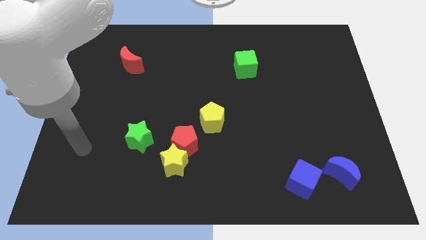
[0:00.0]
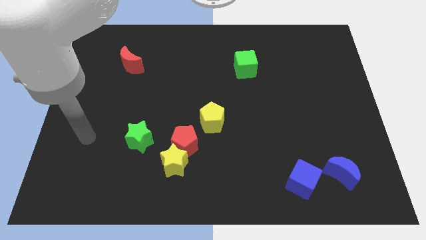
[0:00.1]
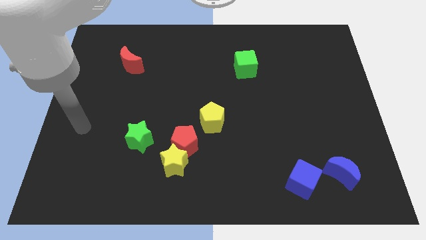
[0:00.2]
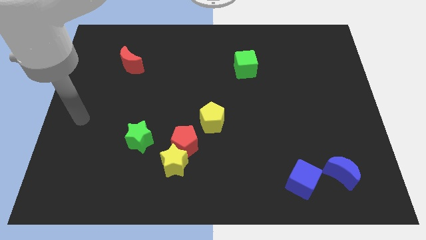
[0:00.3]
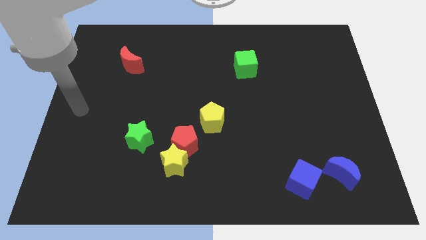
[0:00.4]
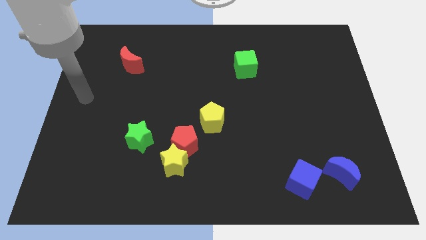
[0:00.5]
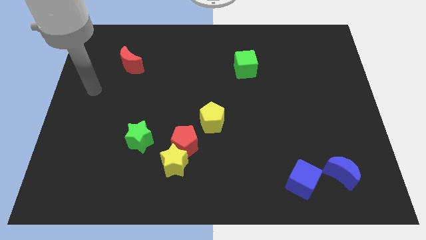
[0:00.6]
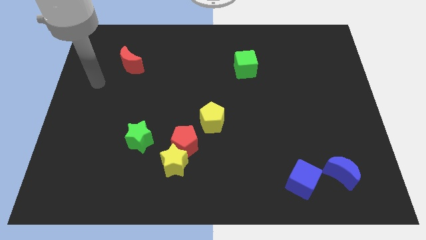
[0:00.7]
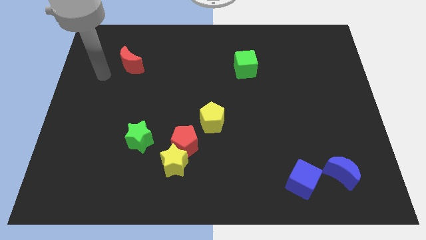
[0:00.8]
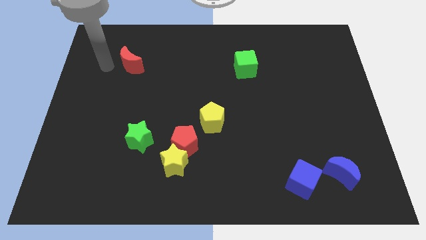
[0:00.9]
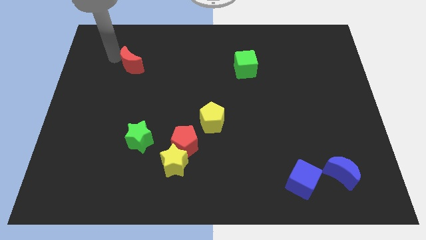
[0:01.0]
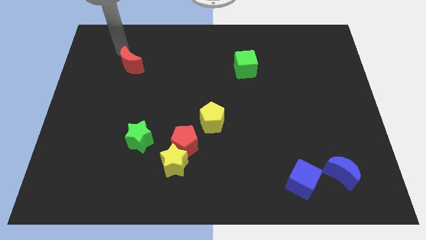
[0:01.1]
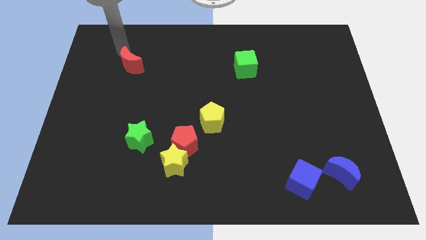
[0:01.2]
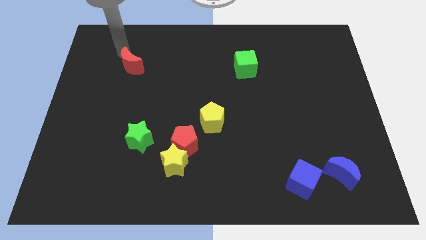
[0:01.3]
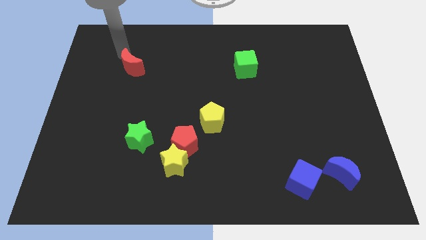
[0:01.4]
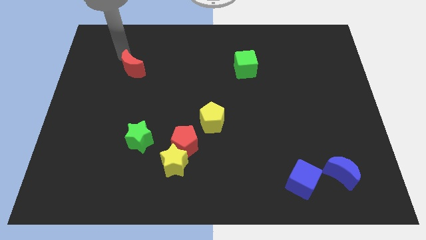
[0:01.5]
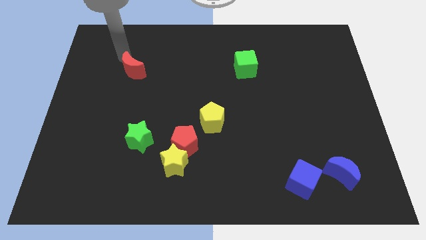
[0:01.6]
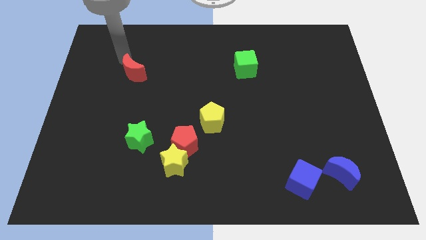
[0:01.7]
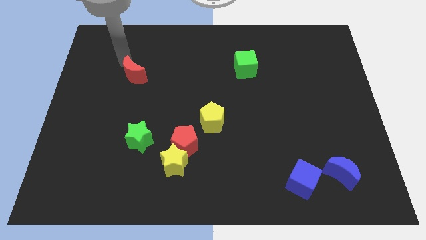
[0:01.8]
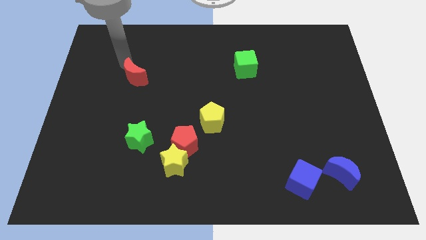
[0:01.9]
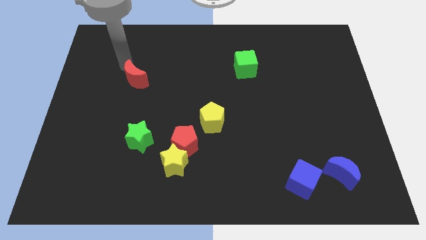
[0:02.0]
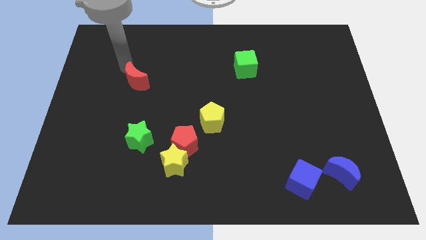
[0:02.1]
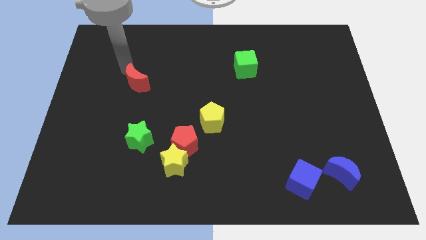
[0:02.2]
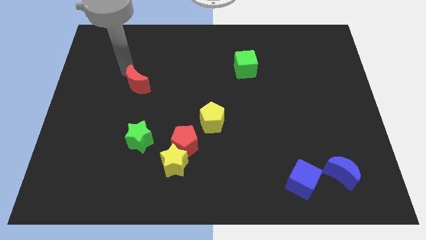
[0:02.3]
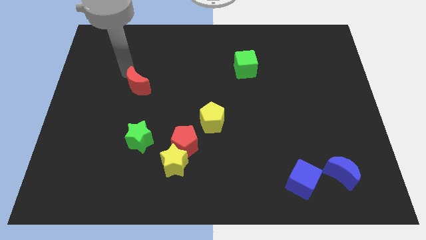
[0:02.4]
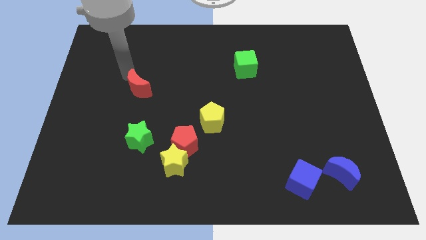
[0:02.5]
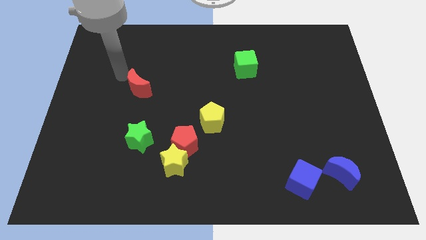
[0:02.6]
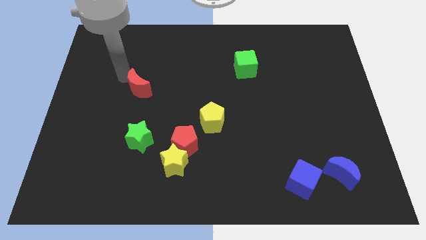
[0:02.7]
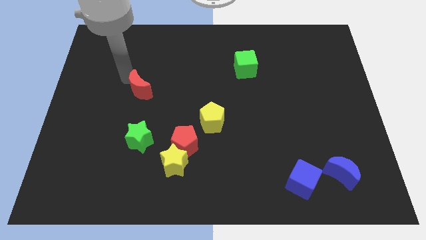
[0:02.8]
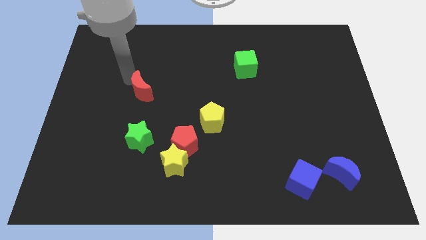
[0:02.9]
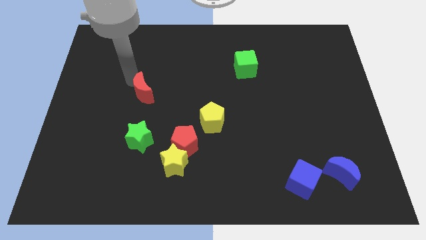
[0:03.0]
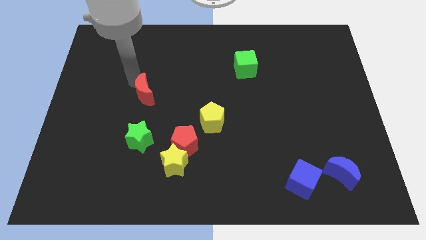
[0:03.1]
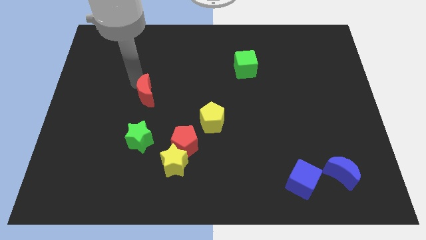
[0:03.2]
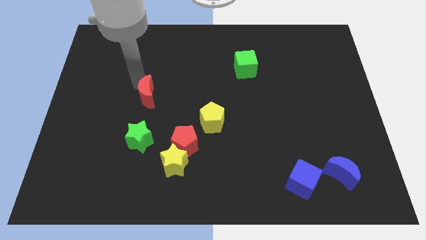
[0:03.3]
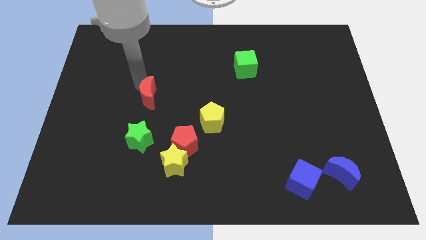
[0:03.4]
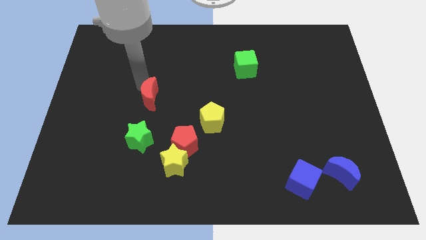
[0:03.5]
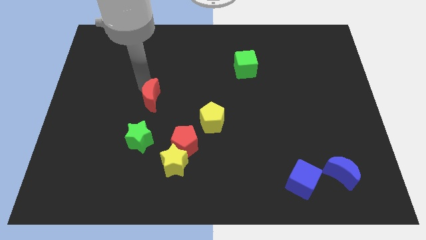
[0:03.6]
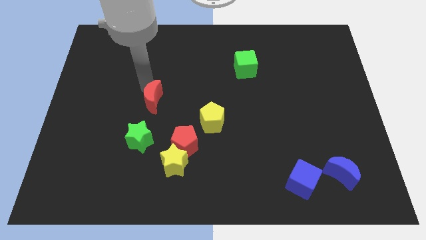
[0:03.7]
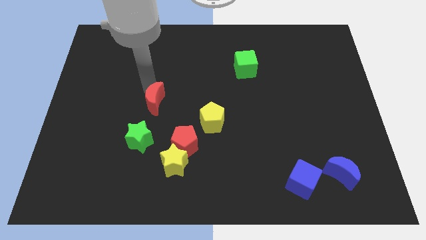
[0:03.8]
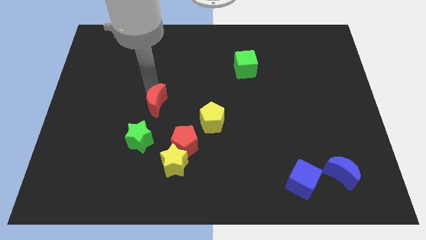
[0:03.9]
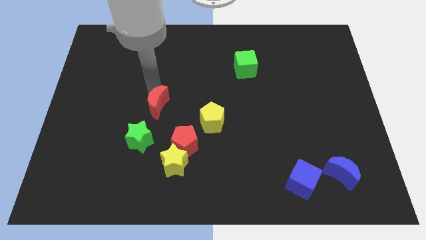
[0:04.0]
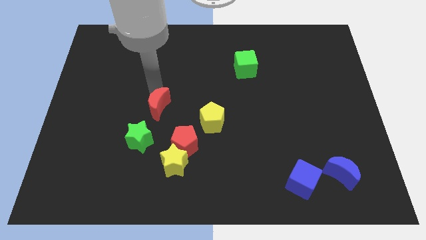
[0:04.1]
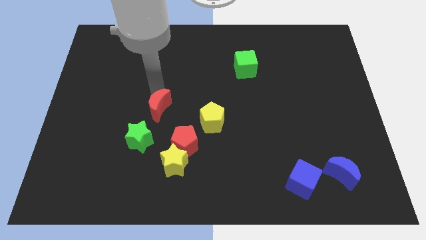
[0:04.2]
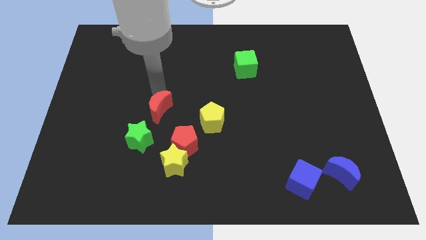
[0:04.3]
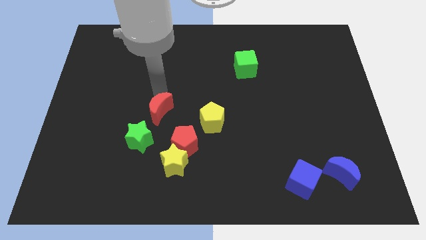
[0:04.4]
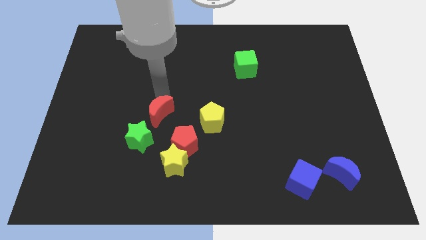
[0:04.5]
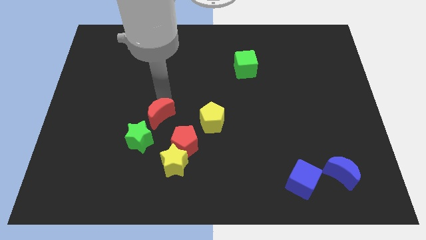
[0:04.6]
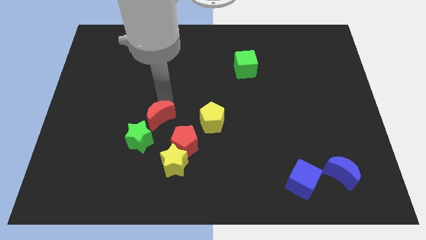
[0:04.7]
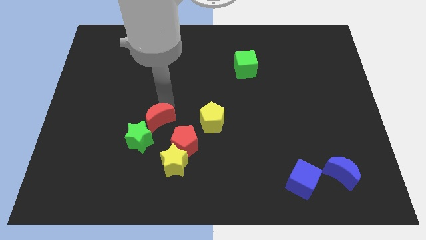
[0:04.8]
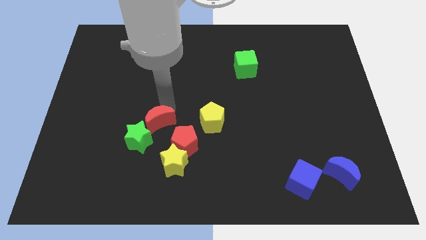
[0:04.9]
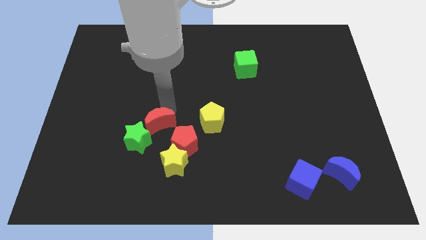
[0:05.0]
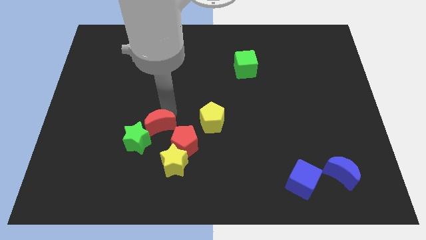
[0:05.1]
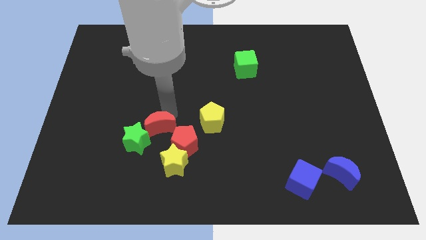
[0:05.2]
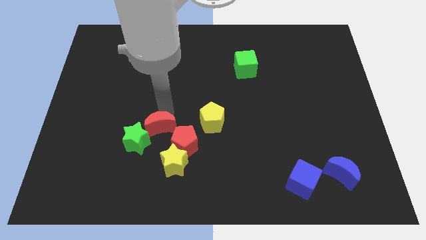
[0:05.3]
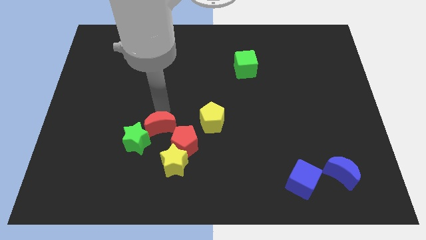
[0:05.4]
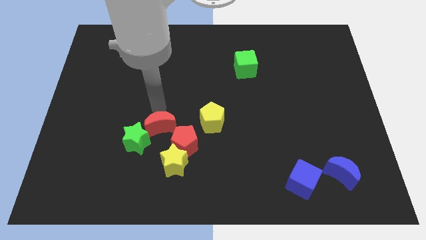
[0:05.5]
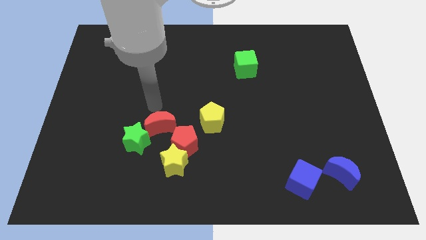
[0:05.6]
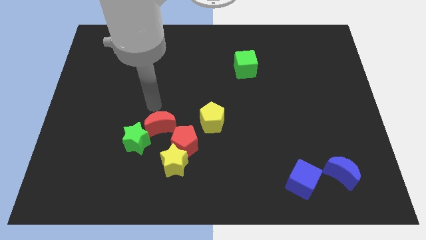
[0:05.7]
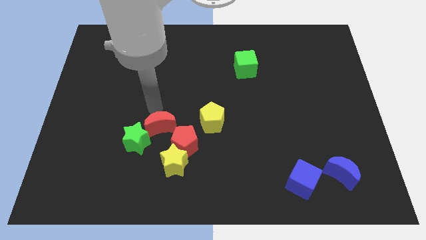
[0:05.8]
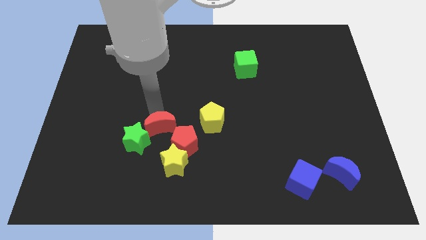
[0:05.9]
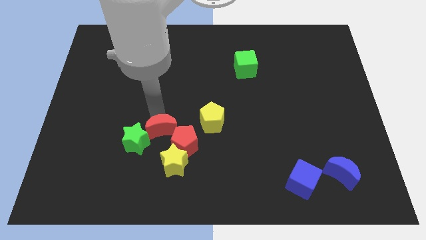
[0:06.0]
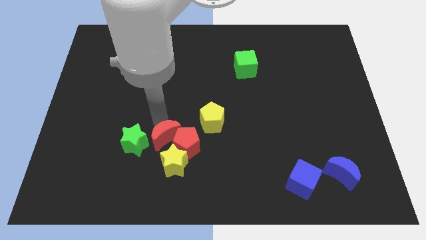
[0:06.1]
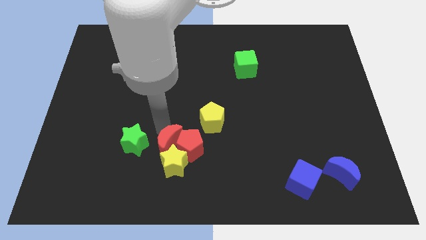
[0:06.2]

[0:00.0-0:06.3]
move the red moon towards the yellow star

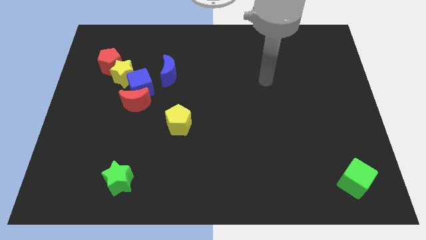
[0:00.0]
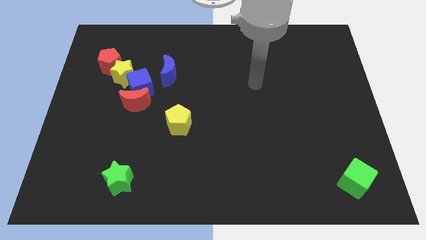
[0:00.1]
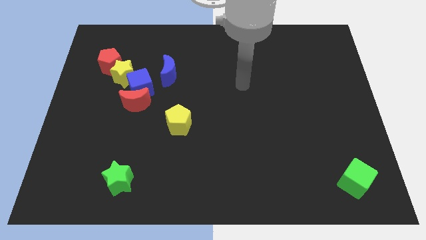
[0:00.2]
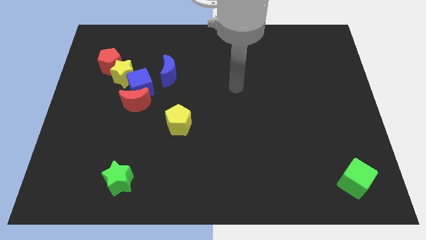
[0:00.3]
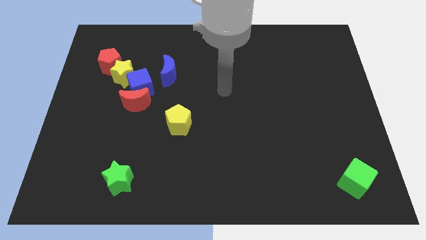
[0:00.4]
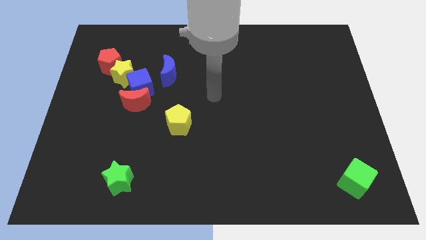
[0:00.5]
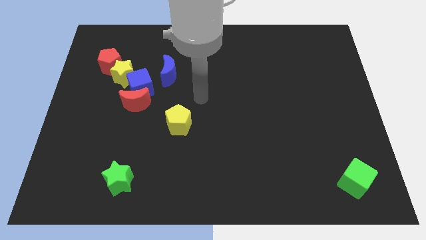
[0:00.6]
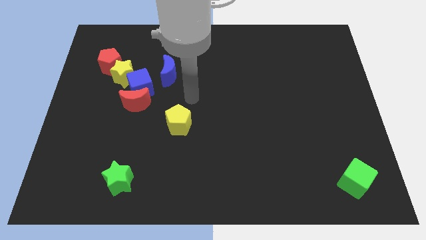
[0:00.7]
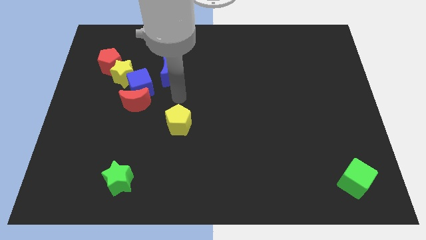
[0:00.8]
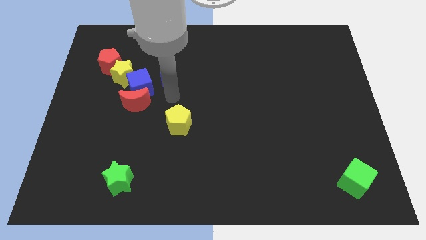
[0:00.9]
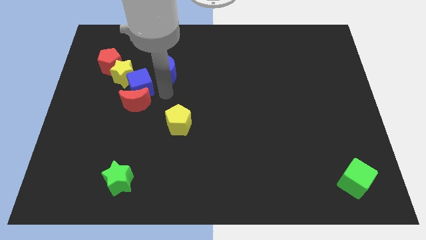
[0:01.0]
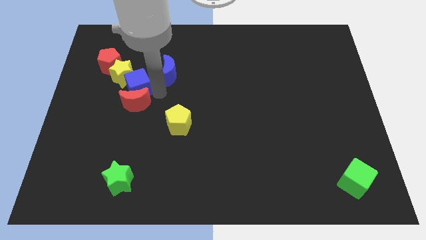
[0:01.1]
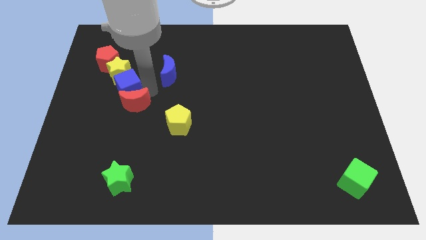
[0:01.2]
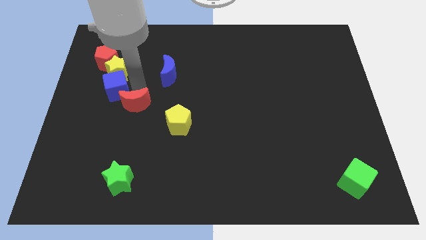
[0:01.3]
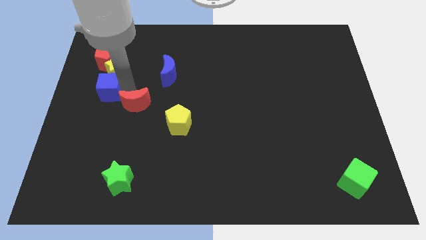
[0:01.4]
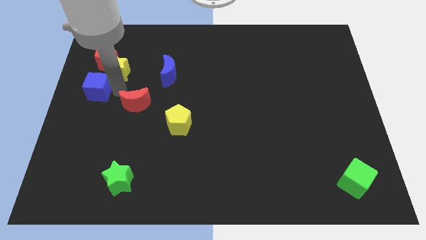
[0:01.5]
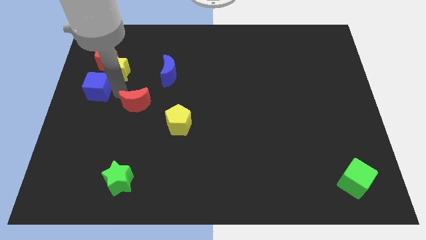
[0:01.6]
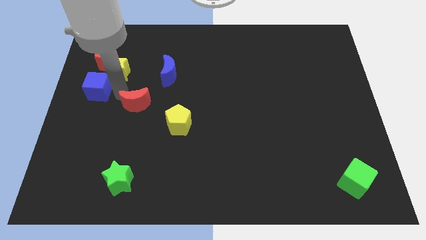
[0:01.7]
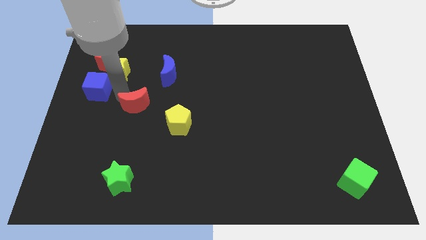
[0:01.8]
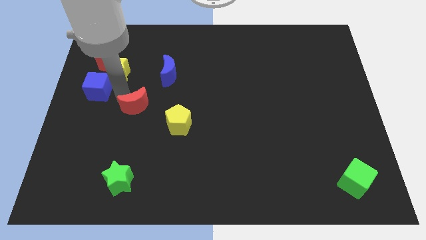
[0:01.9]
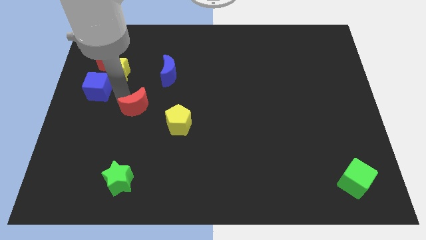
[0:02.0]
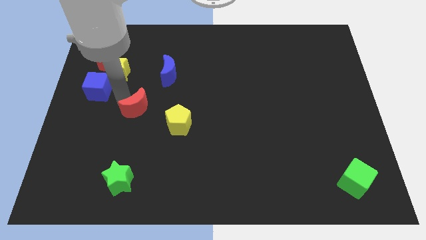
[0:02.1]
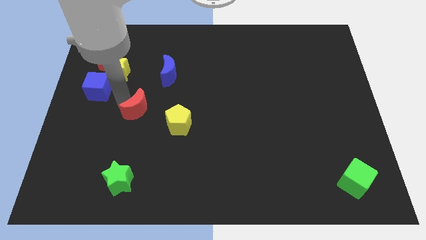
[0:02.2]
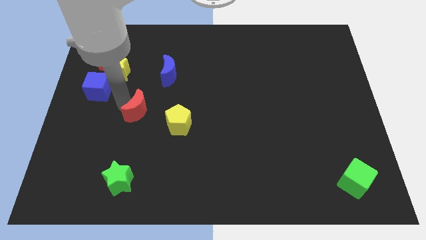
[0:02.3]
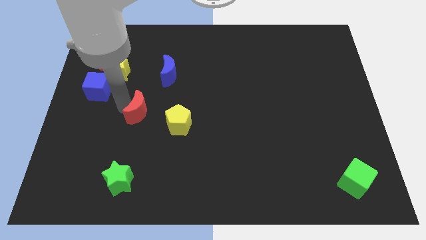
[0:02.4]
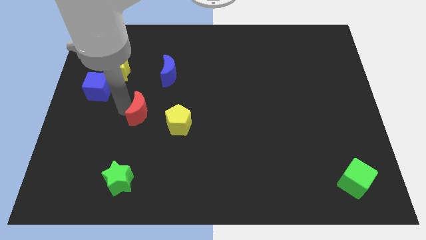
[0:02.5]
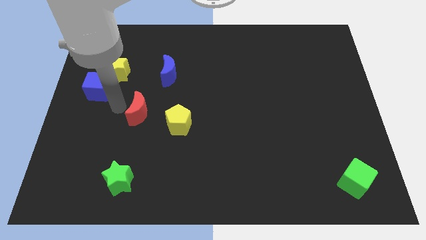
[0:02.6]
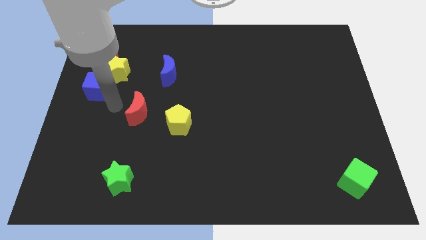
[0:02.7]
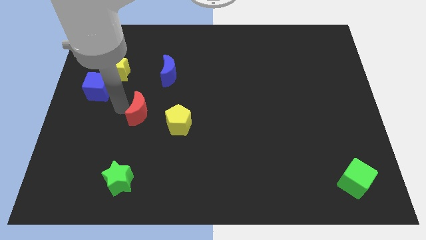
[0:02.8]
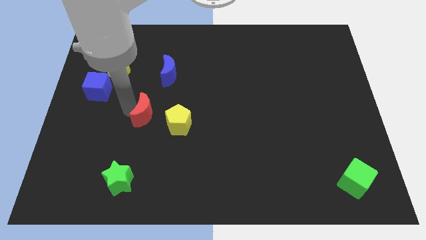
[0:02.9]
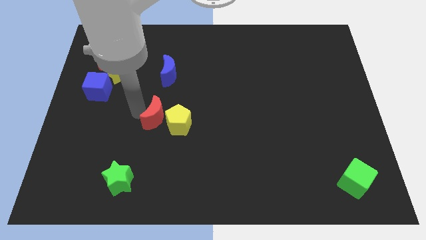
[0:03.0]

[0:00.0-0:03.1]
move the red moon towards the yellow pentagon
